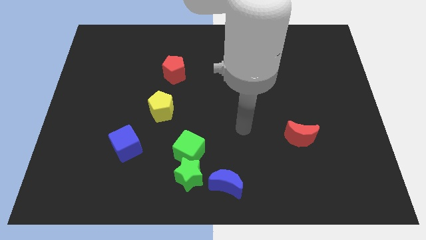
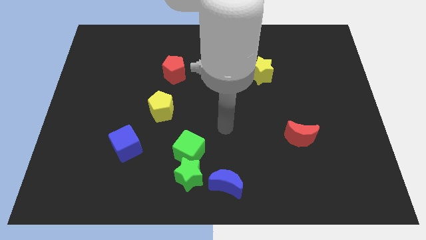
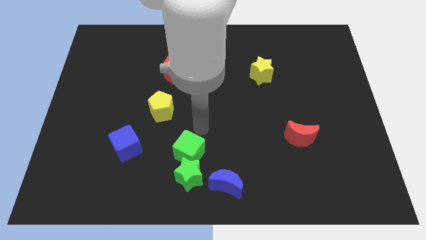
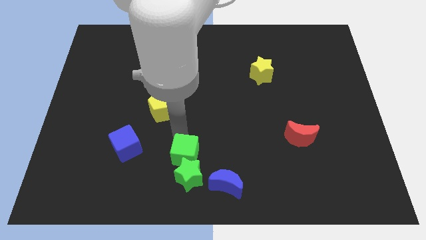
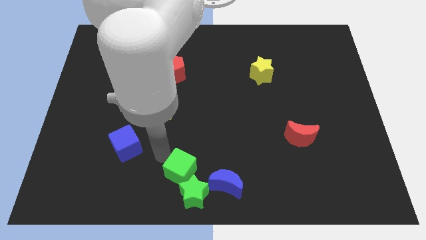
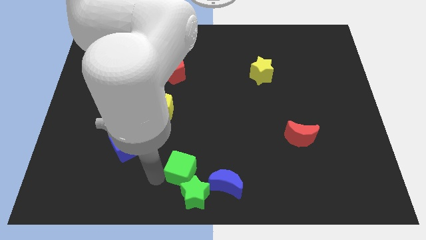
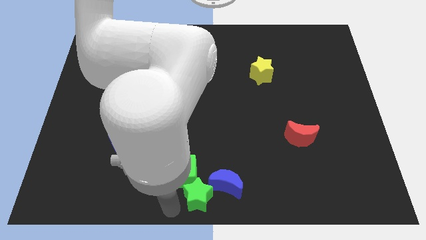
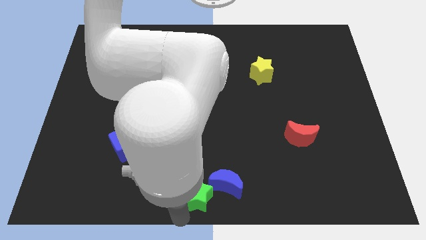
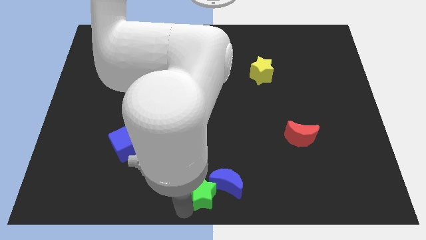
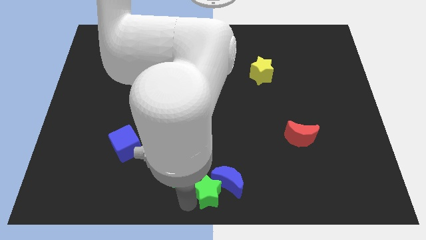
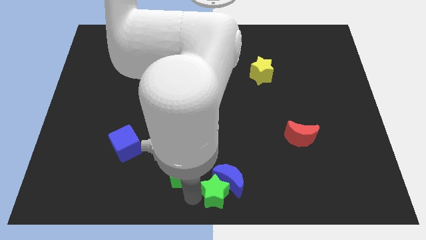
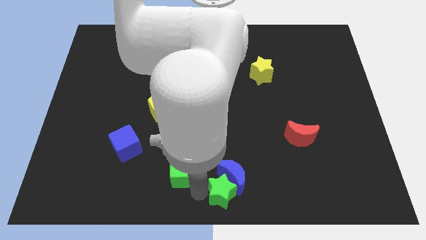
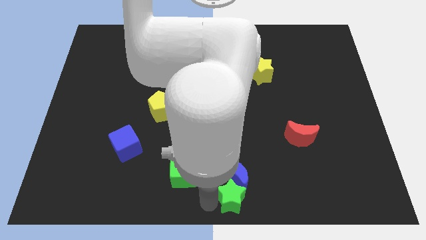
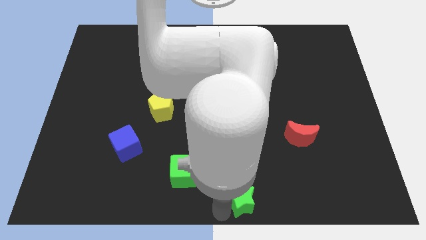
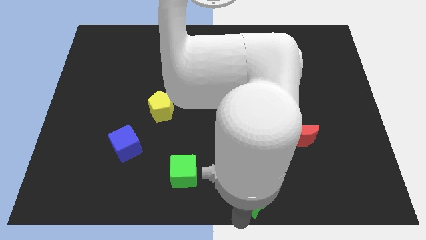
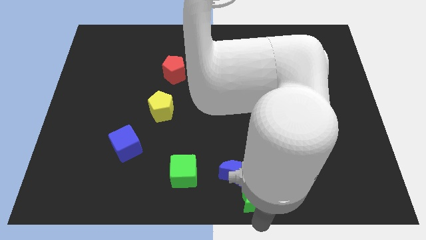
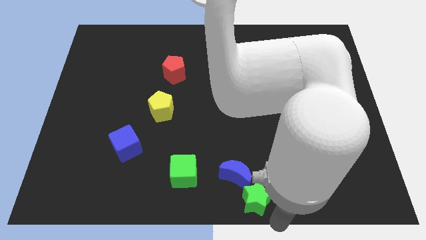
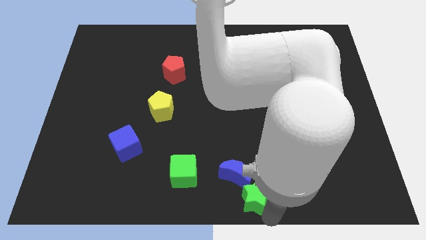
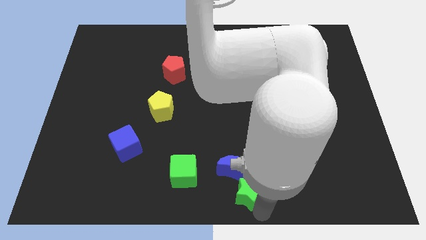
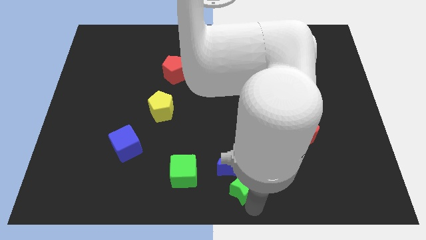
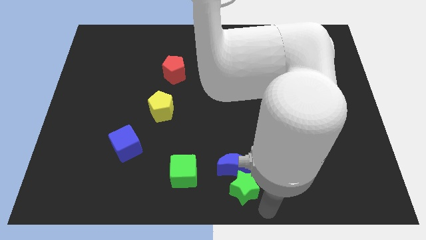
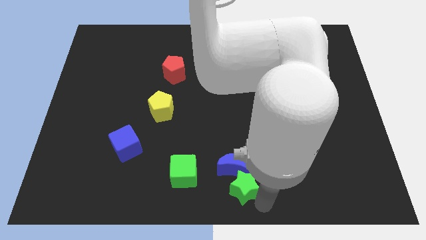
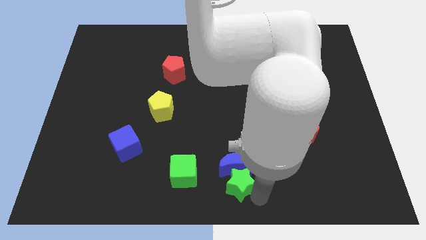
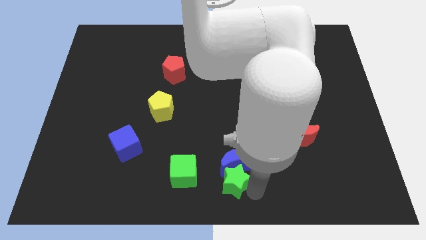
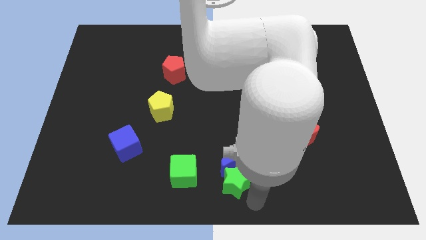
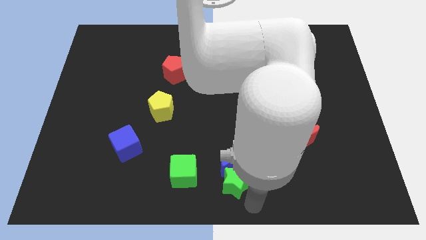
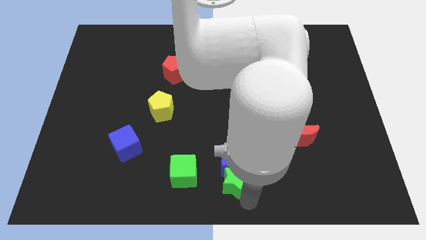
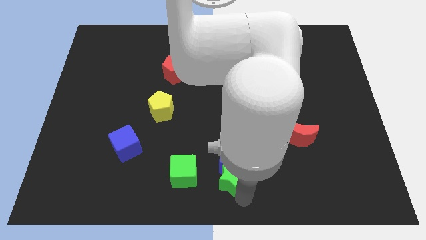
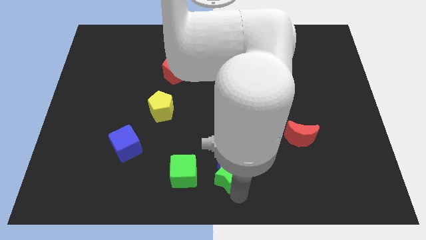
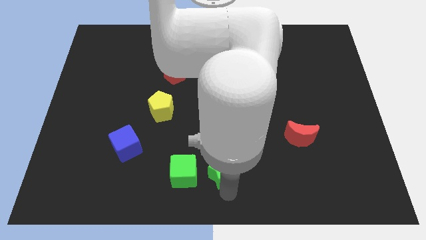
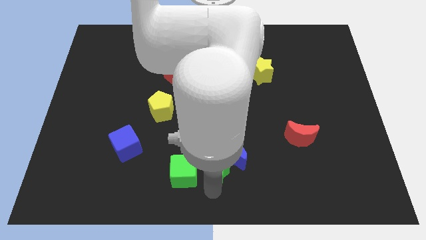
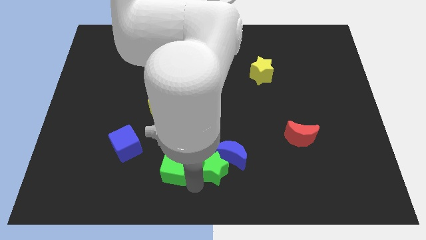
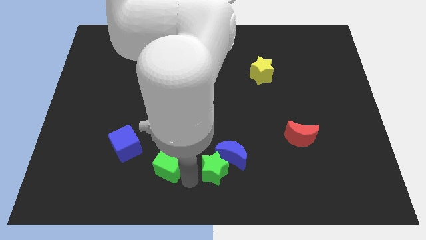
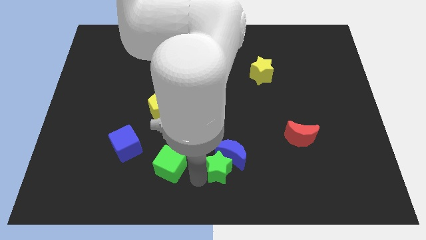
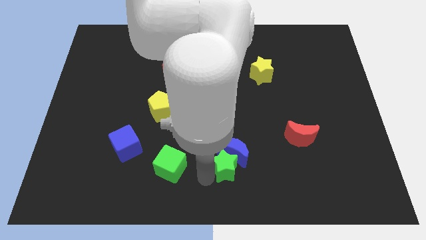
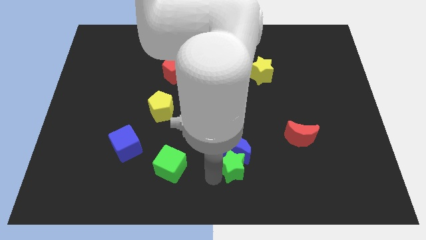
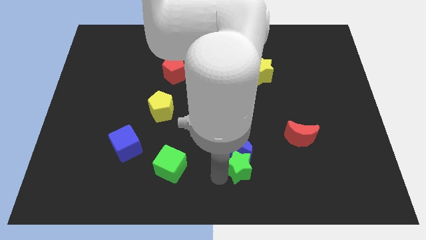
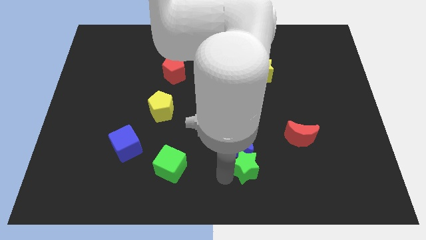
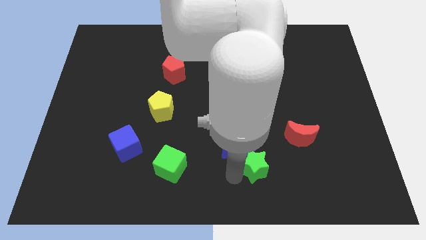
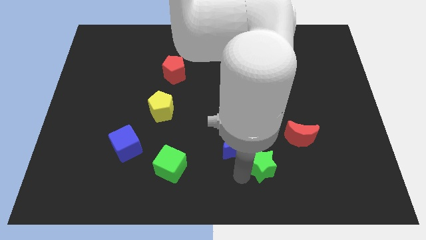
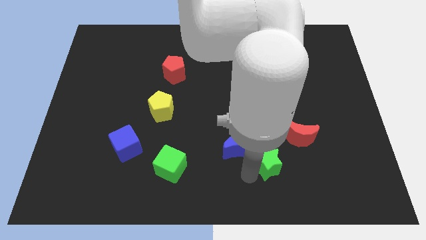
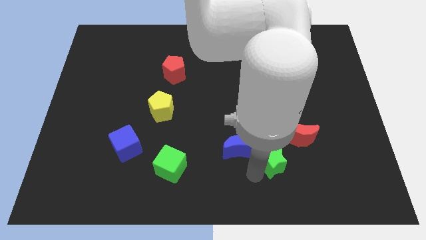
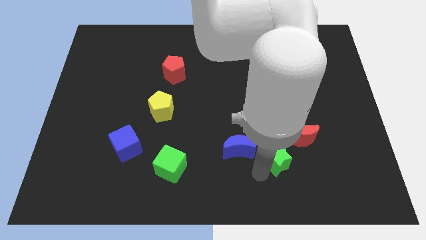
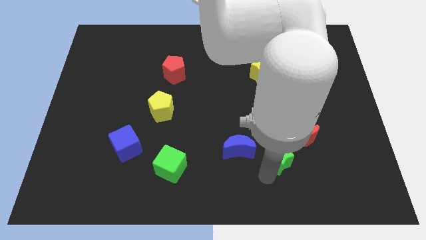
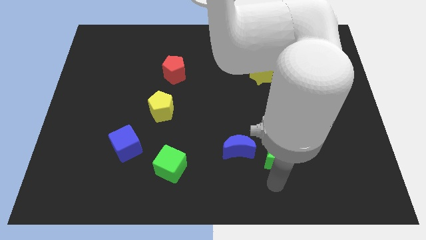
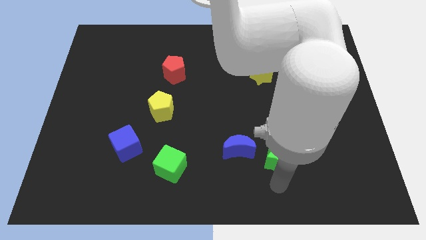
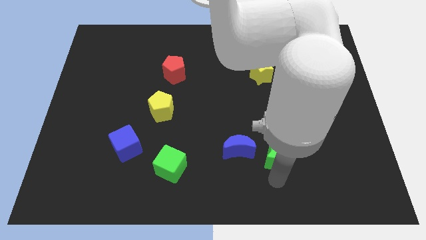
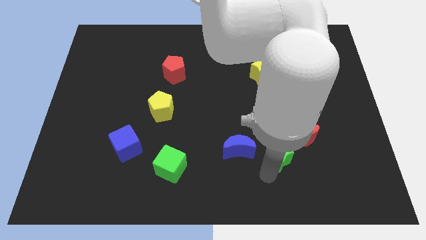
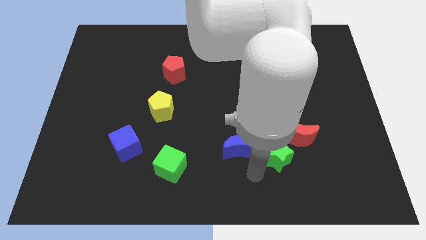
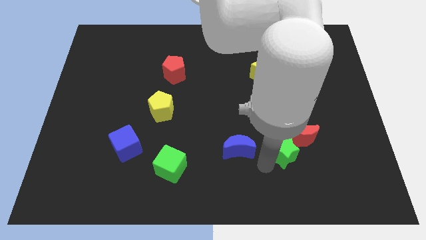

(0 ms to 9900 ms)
move the green star close to the red moon

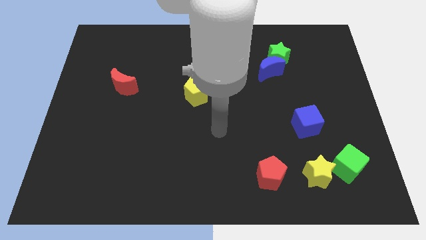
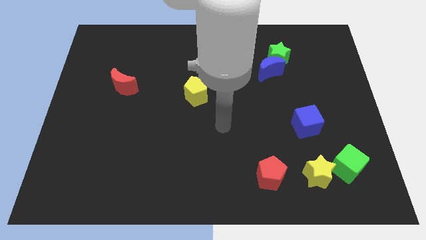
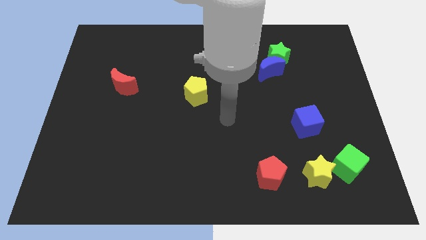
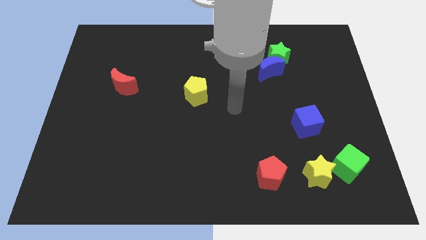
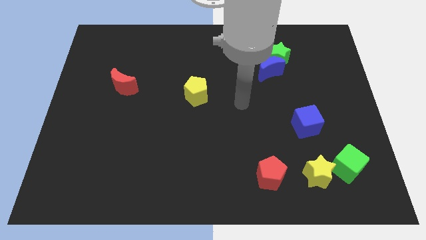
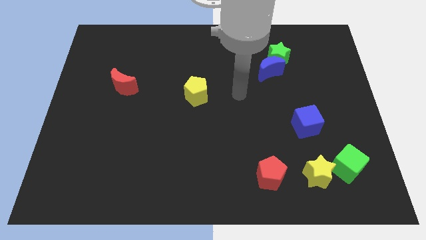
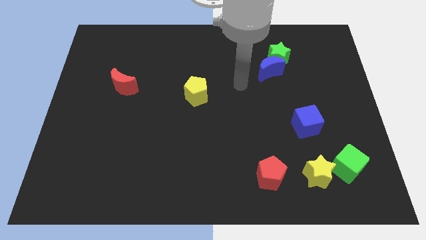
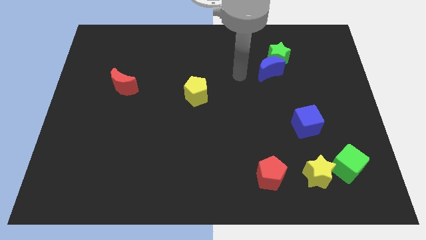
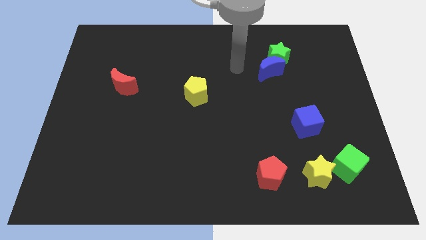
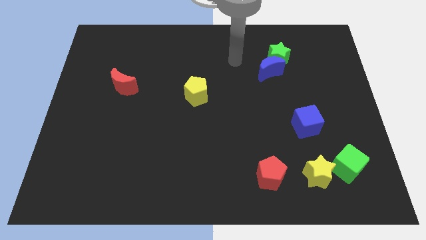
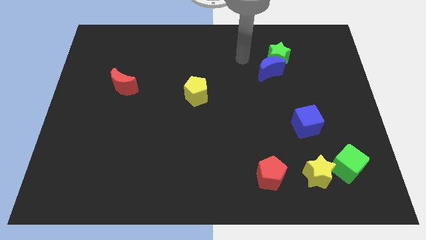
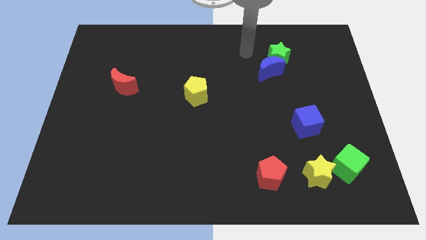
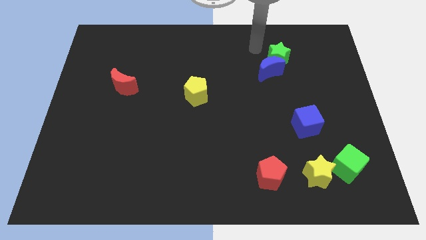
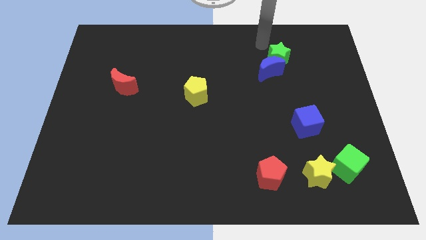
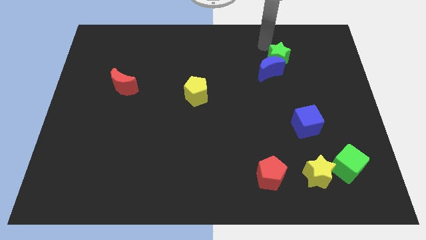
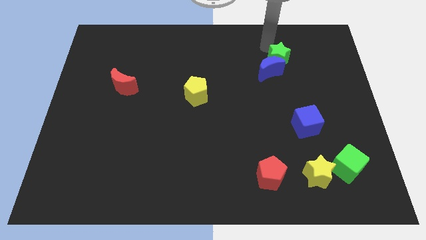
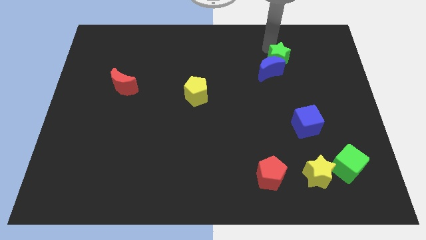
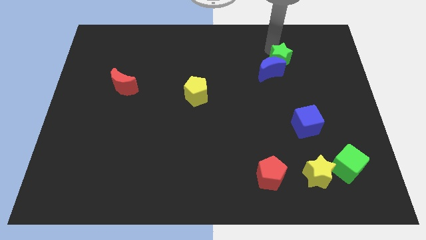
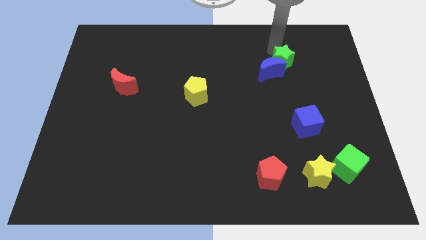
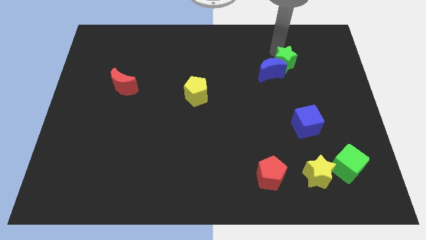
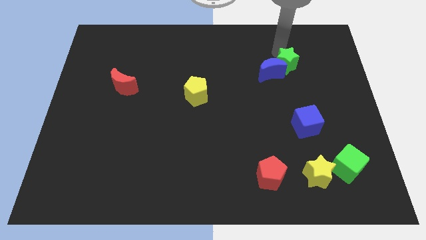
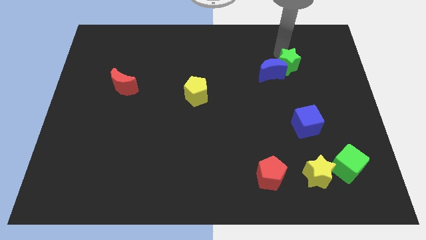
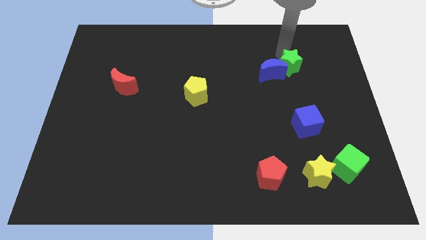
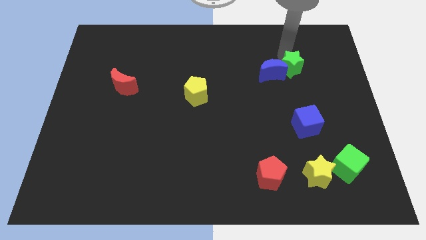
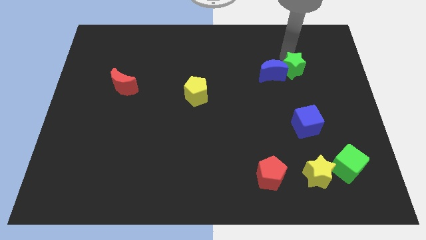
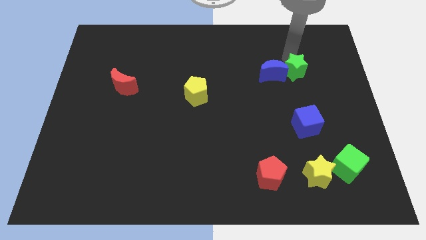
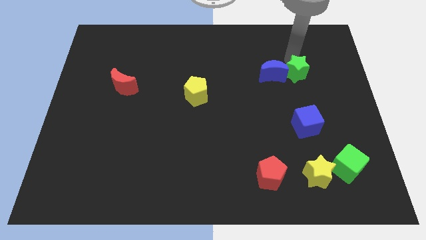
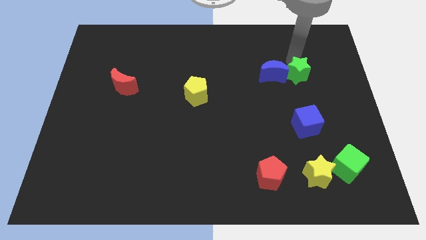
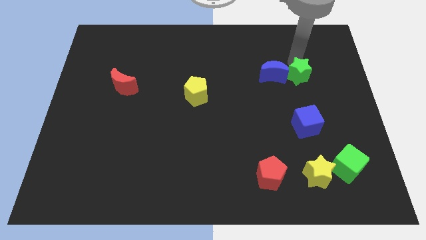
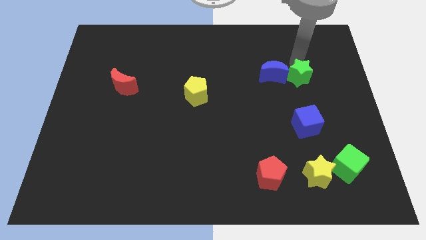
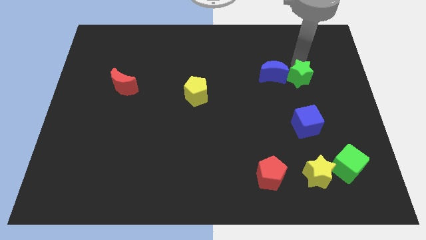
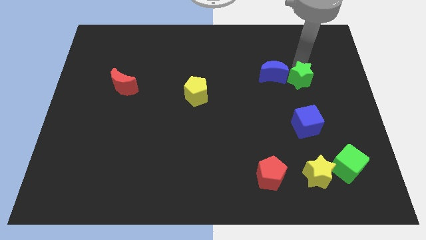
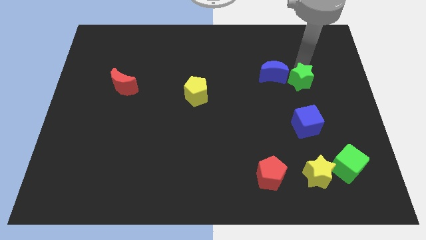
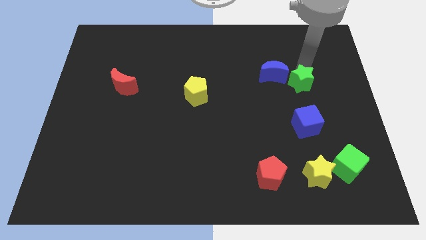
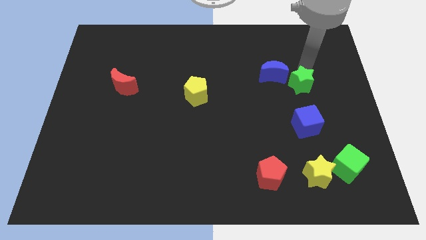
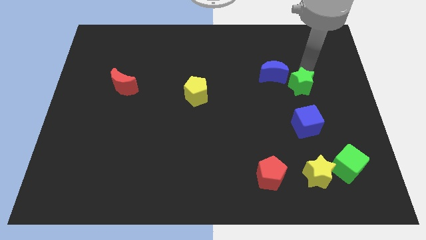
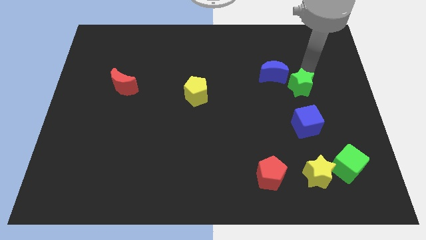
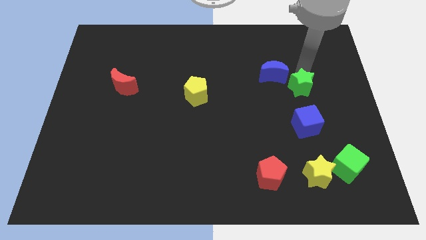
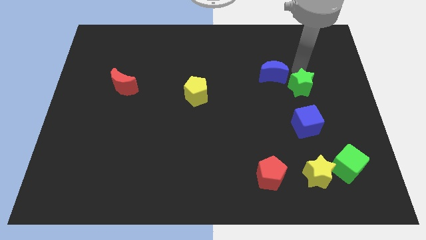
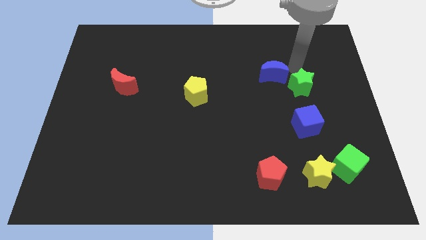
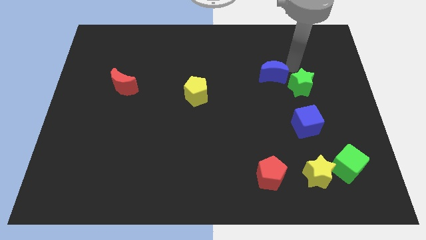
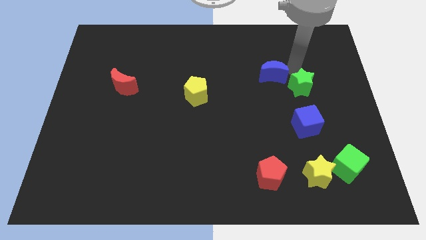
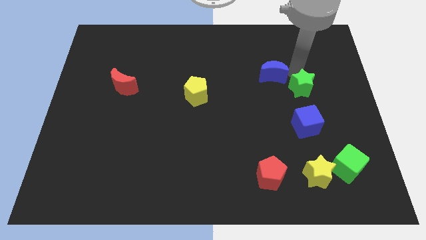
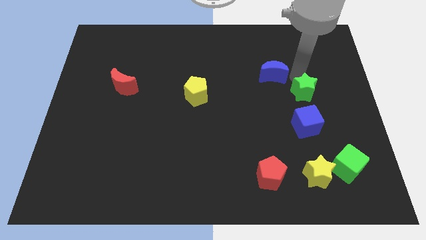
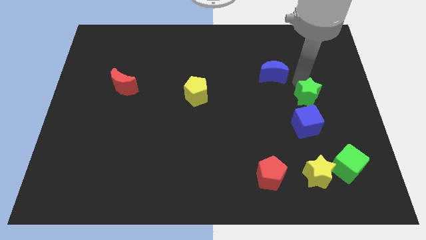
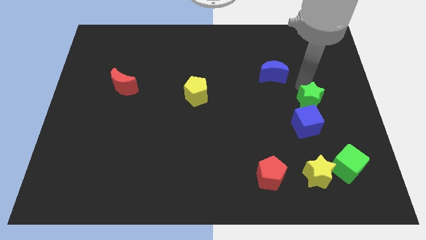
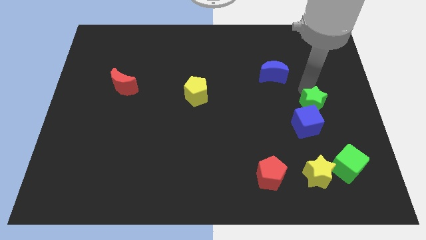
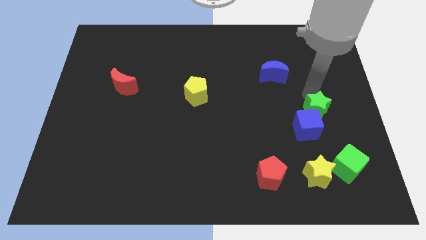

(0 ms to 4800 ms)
put the green star towards the blue cube
